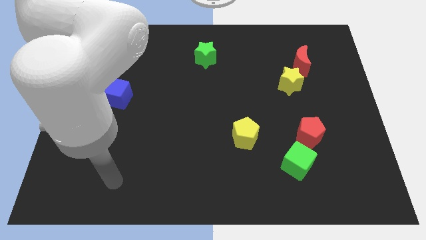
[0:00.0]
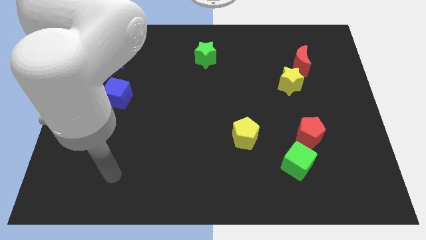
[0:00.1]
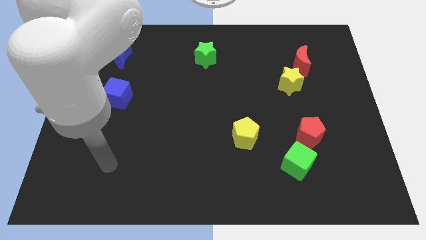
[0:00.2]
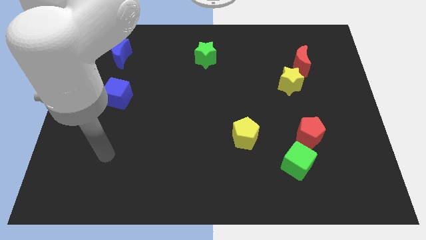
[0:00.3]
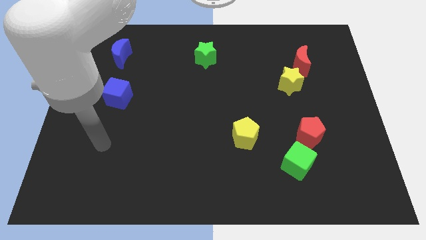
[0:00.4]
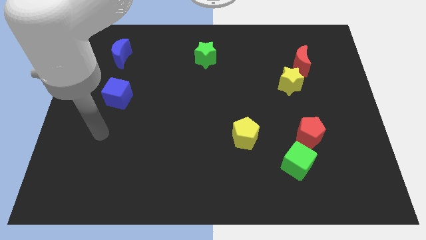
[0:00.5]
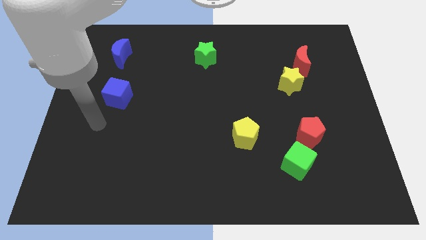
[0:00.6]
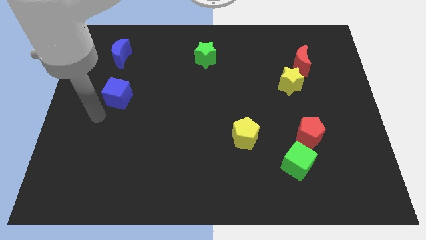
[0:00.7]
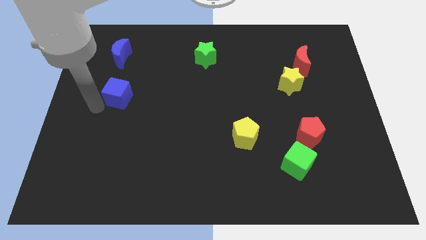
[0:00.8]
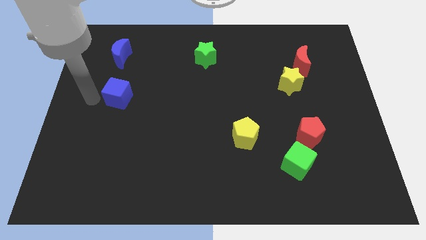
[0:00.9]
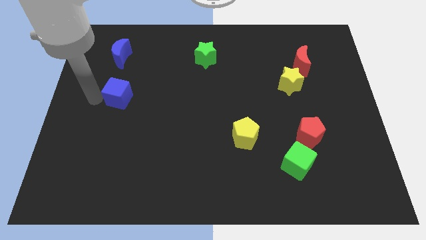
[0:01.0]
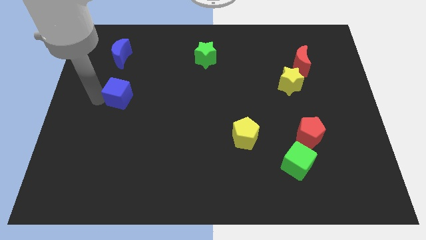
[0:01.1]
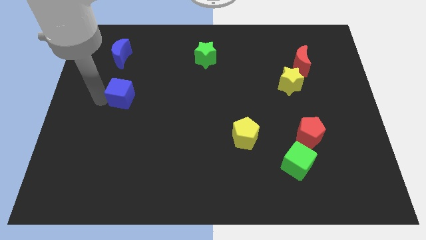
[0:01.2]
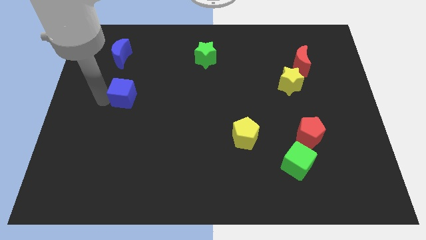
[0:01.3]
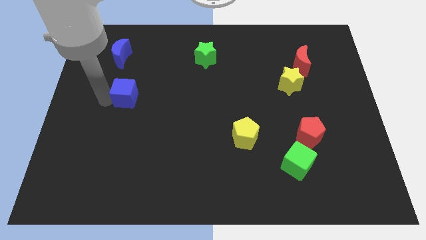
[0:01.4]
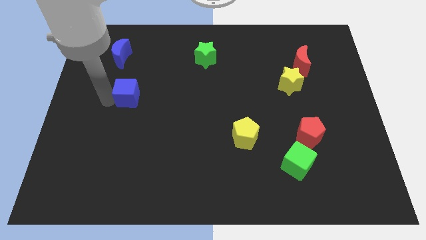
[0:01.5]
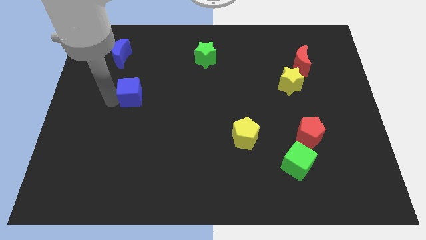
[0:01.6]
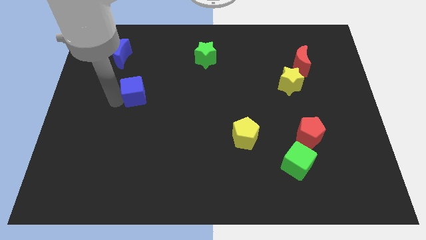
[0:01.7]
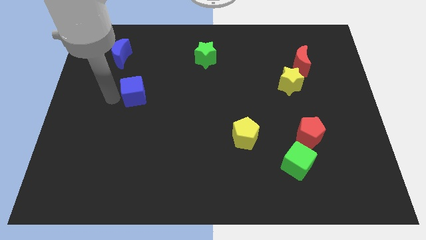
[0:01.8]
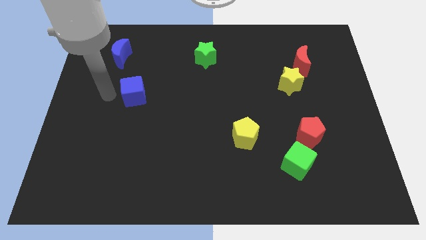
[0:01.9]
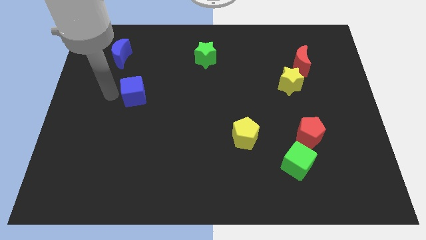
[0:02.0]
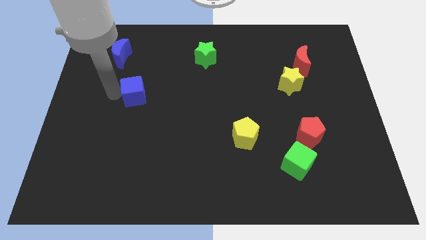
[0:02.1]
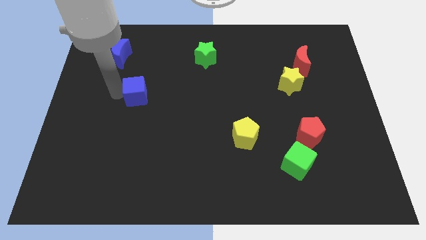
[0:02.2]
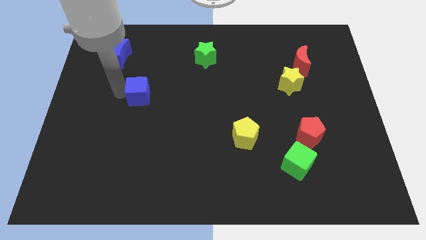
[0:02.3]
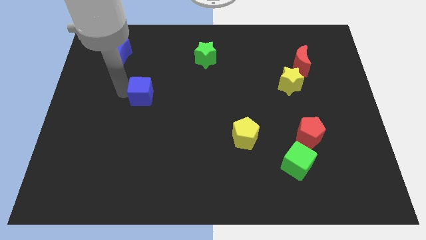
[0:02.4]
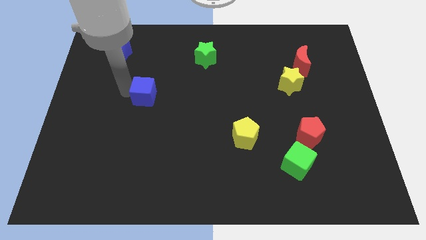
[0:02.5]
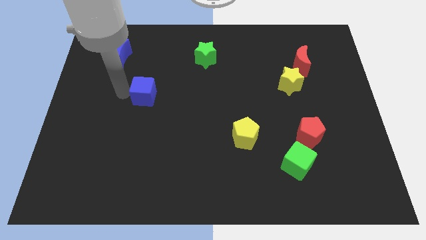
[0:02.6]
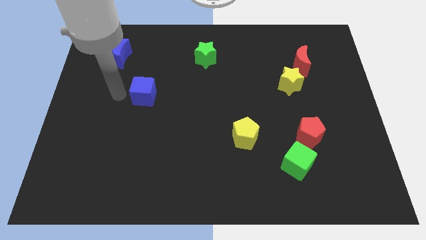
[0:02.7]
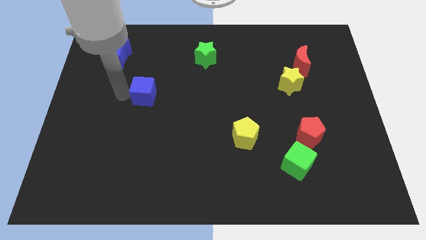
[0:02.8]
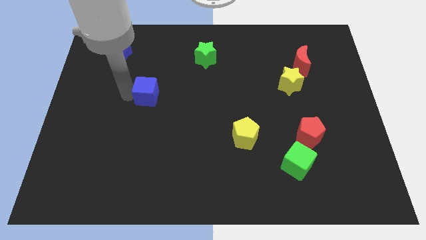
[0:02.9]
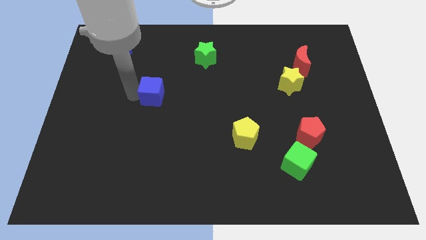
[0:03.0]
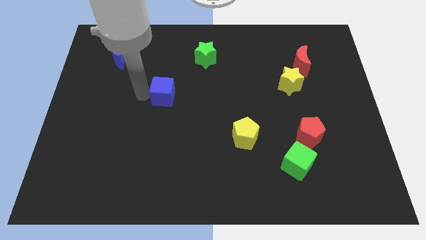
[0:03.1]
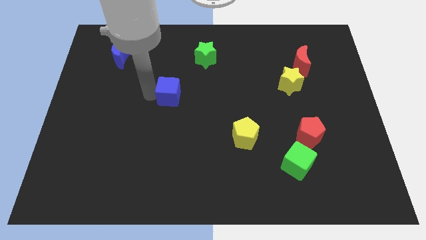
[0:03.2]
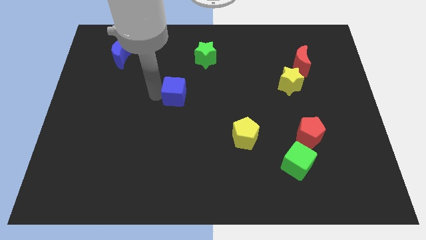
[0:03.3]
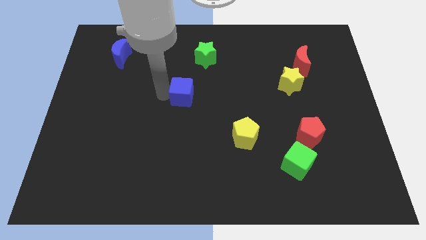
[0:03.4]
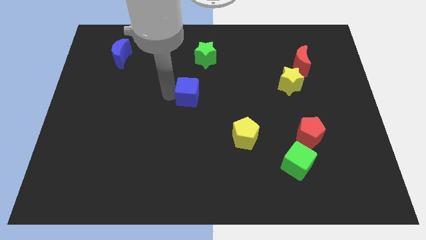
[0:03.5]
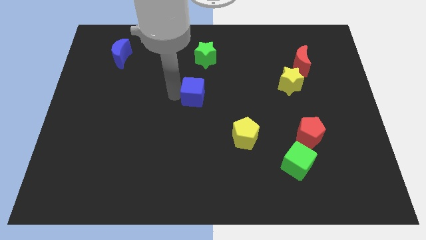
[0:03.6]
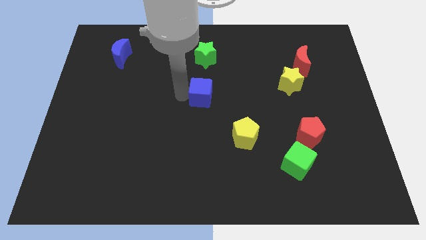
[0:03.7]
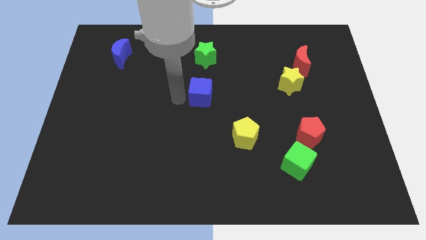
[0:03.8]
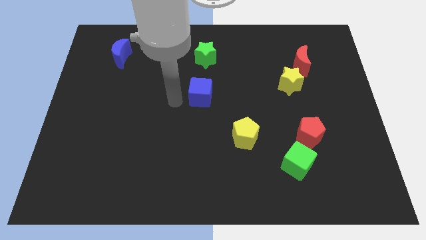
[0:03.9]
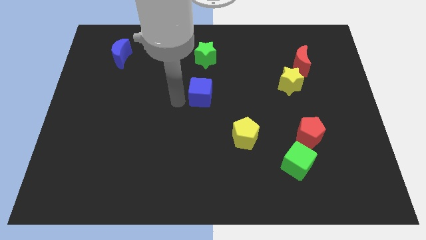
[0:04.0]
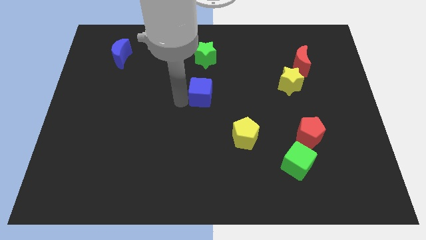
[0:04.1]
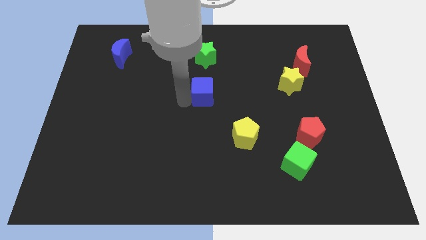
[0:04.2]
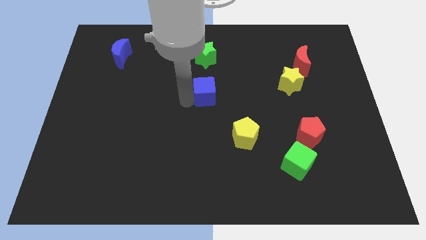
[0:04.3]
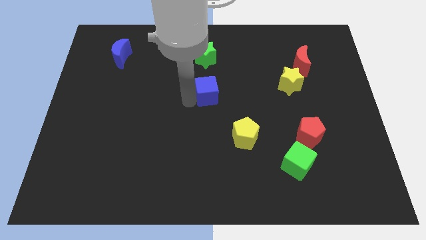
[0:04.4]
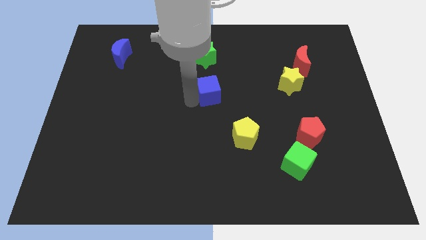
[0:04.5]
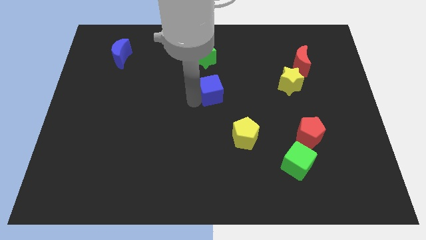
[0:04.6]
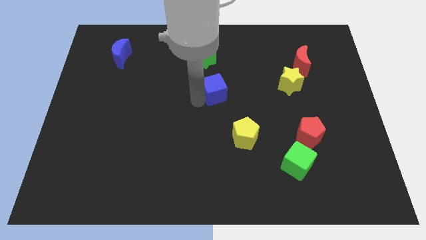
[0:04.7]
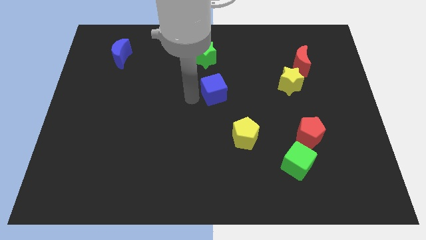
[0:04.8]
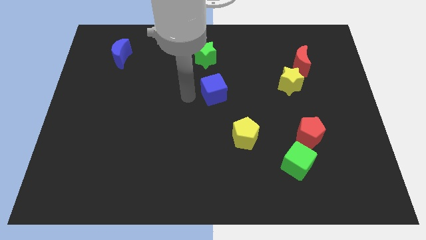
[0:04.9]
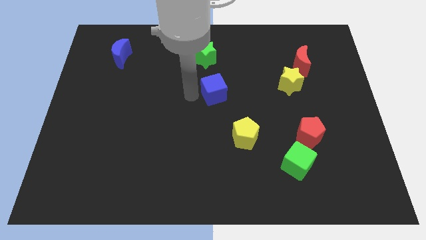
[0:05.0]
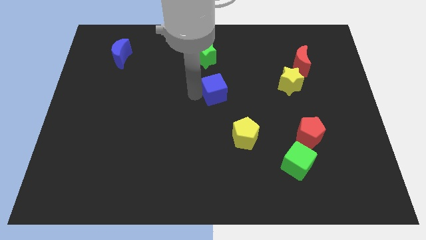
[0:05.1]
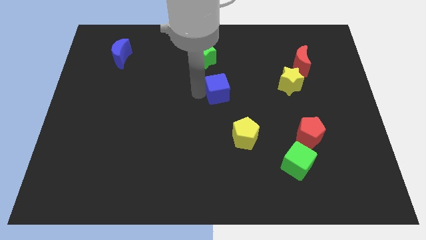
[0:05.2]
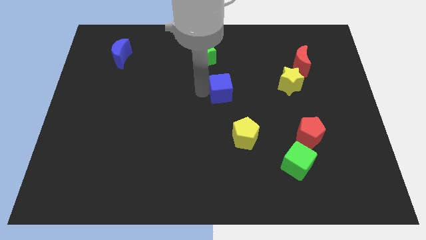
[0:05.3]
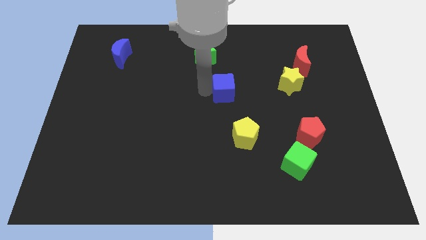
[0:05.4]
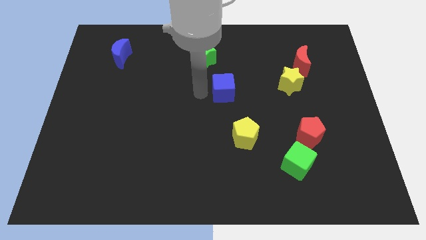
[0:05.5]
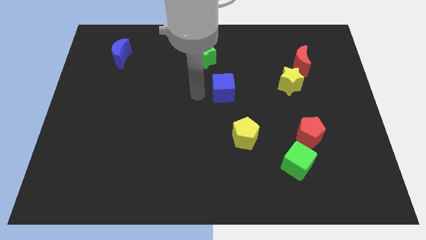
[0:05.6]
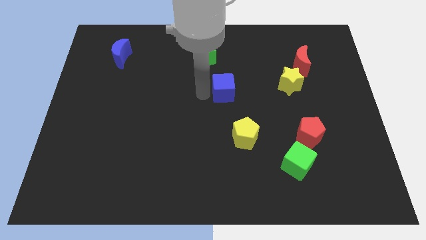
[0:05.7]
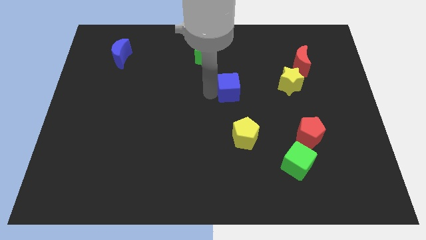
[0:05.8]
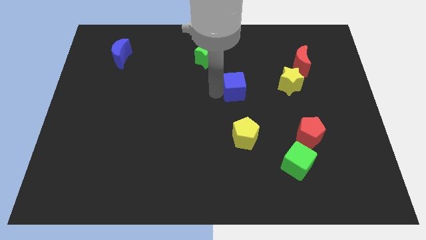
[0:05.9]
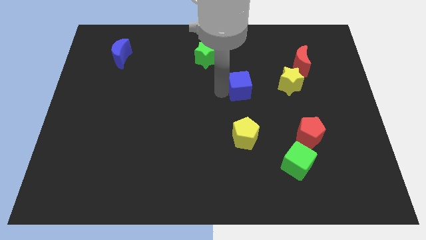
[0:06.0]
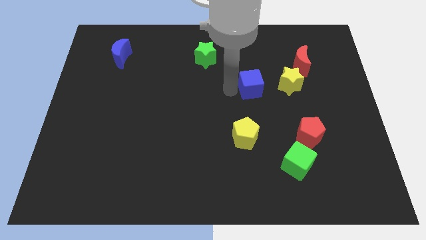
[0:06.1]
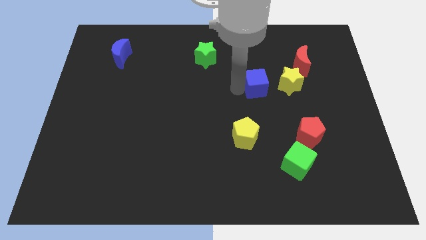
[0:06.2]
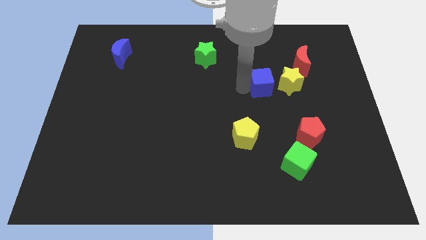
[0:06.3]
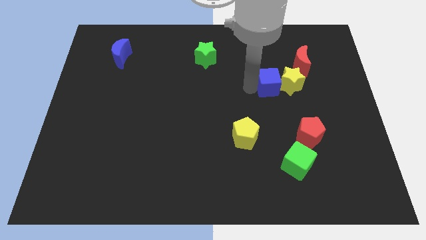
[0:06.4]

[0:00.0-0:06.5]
put the blue cube to the bottom left of the red moon

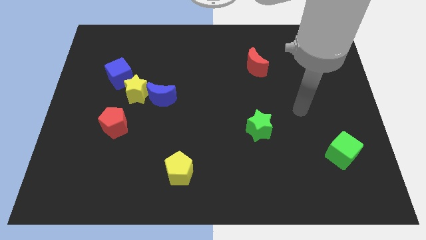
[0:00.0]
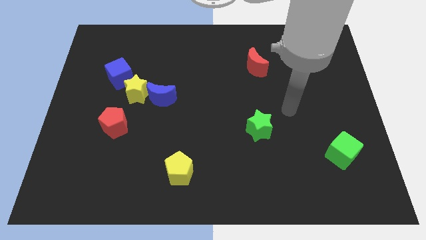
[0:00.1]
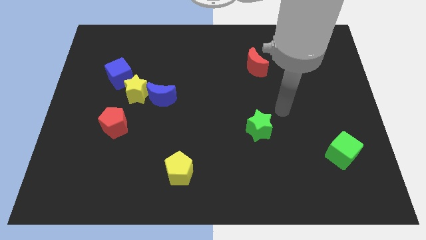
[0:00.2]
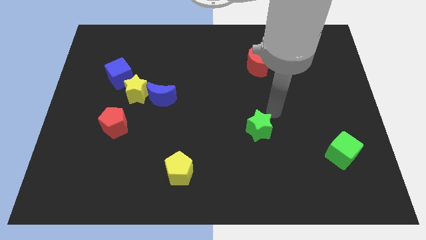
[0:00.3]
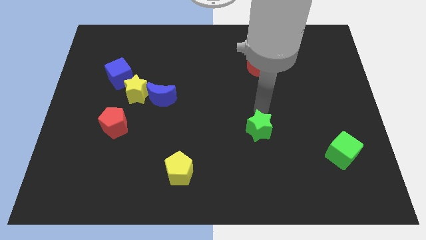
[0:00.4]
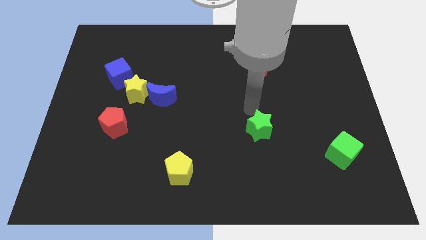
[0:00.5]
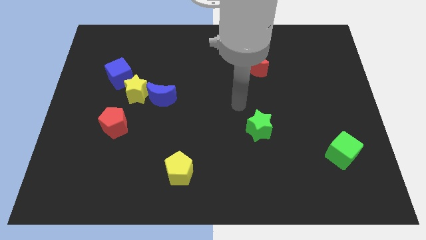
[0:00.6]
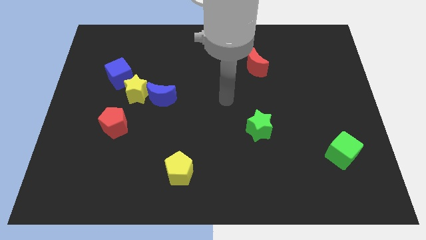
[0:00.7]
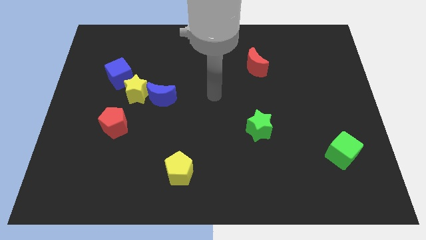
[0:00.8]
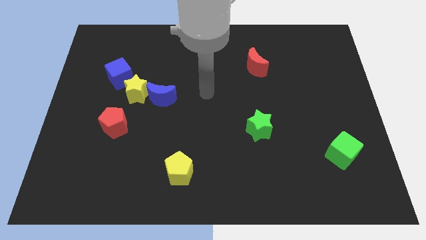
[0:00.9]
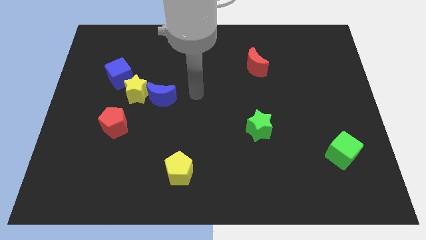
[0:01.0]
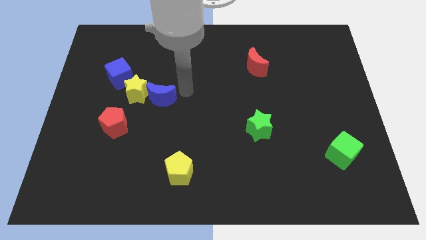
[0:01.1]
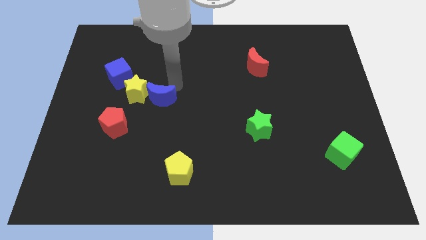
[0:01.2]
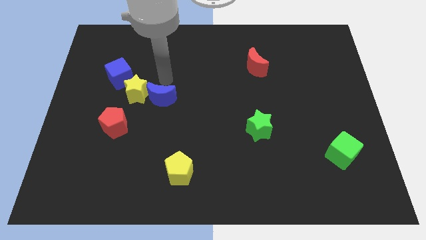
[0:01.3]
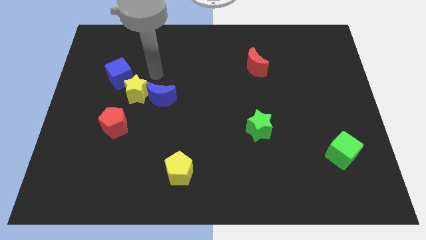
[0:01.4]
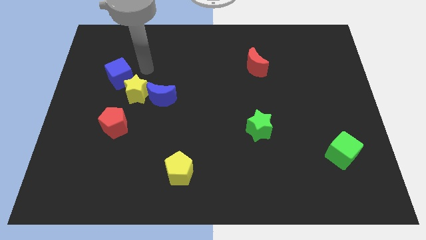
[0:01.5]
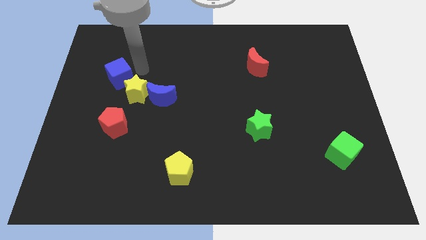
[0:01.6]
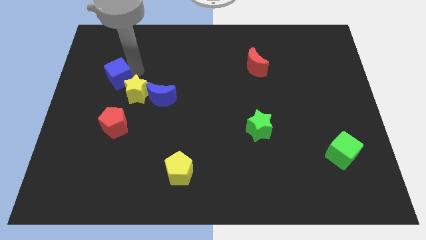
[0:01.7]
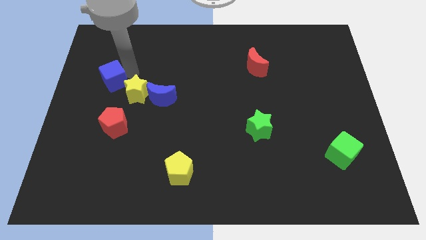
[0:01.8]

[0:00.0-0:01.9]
push the blue cube left of the yellow star
